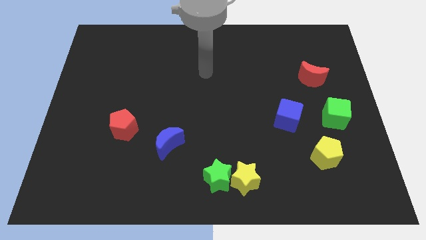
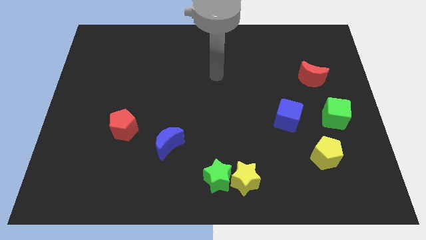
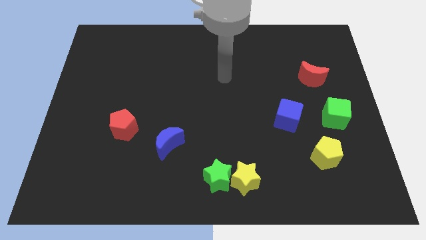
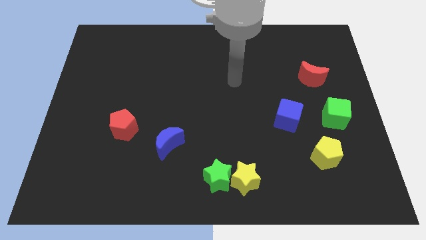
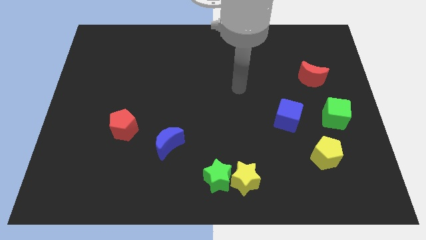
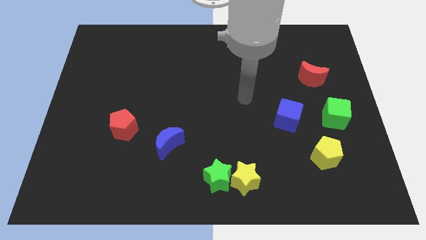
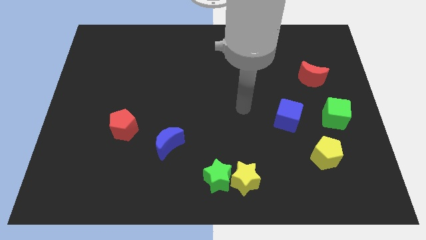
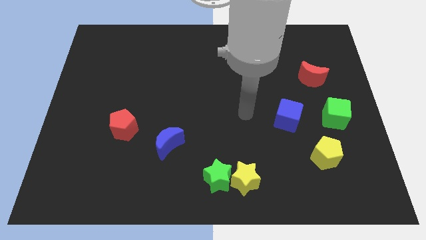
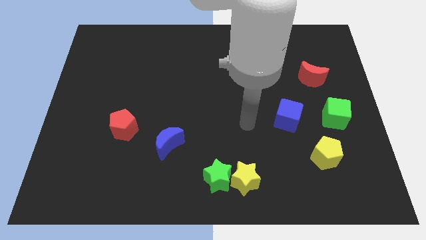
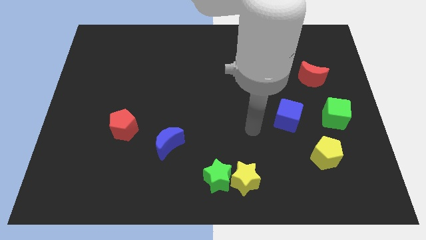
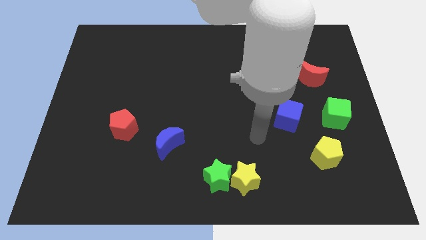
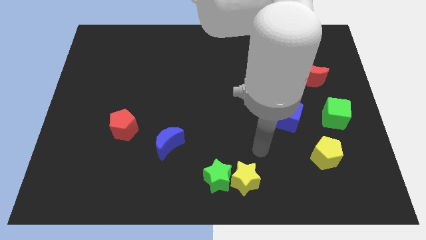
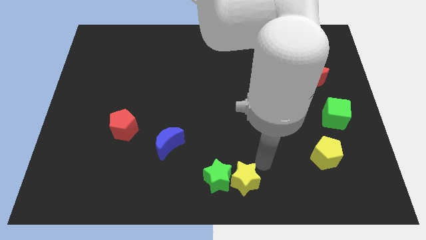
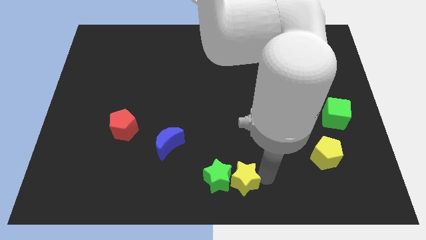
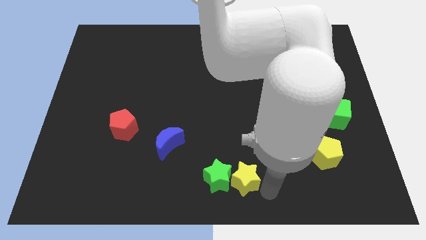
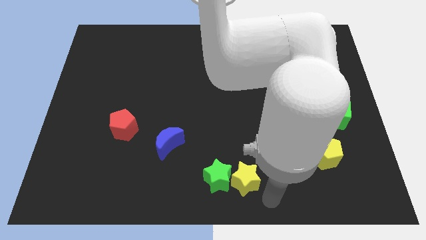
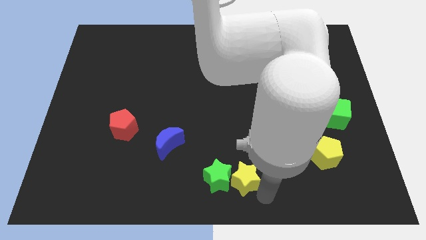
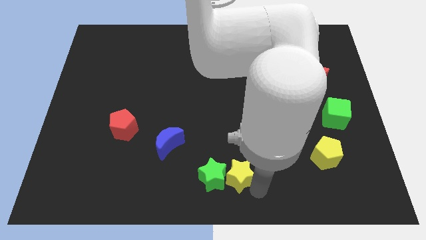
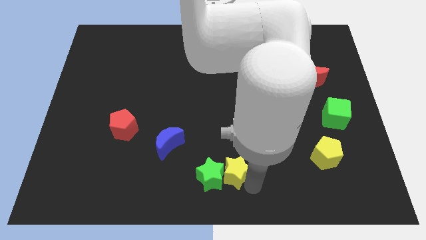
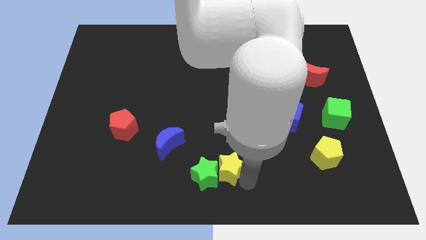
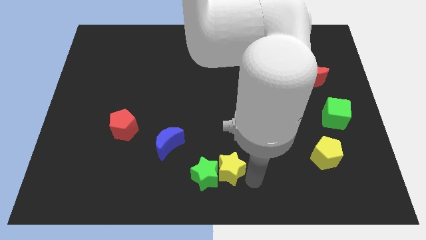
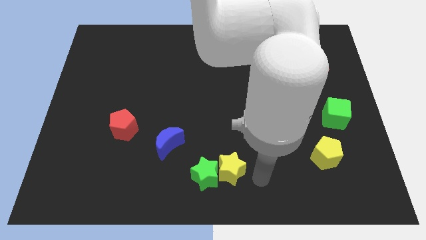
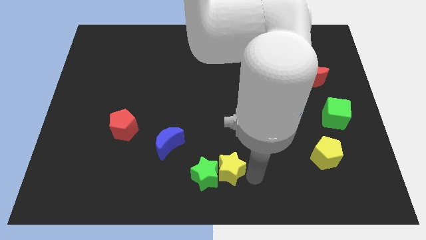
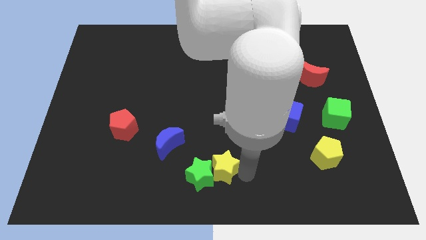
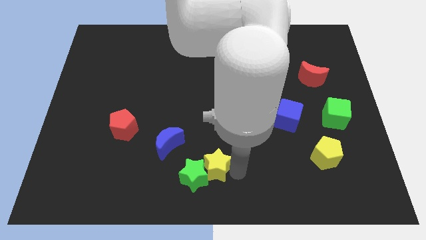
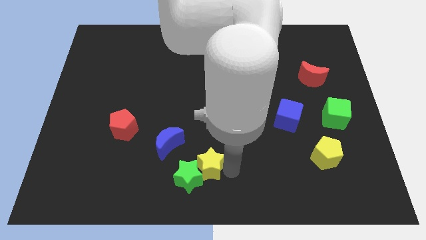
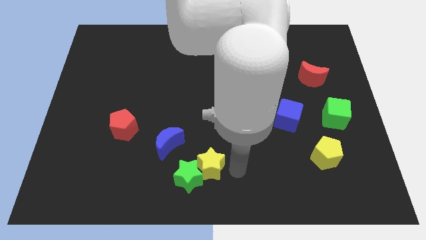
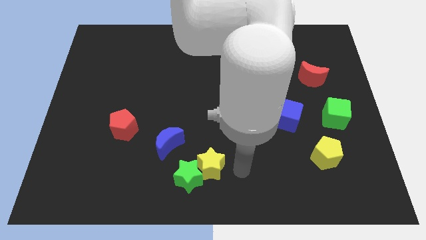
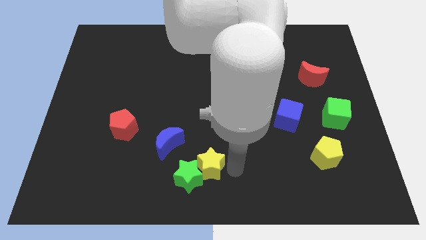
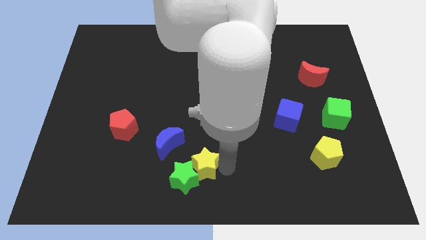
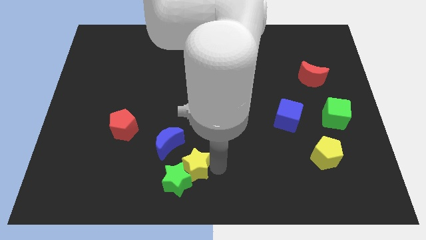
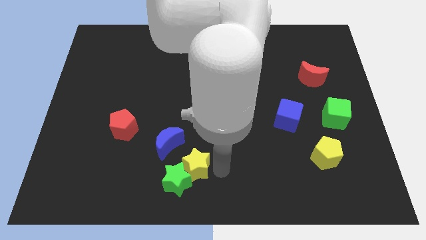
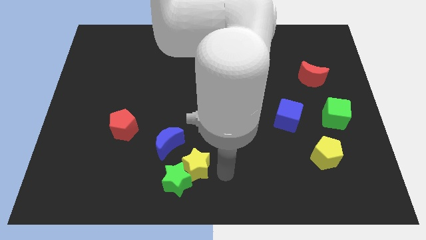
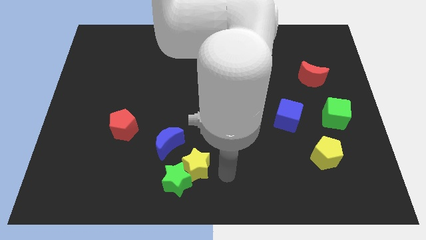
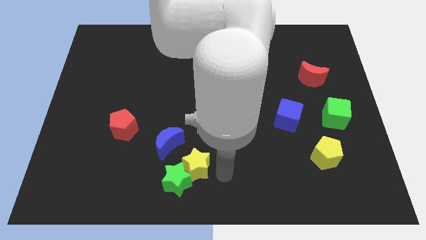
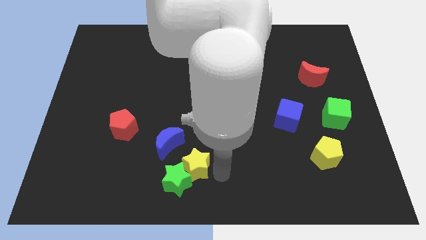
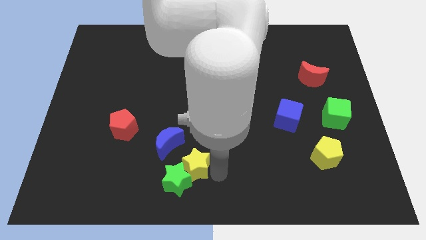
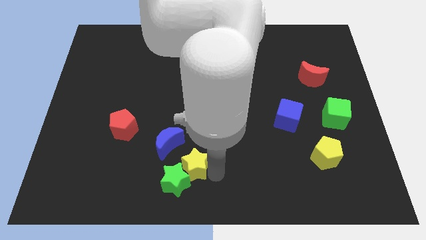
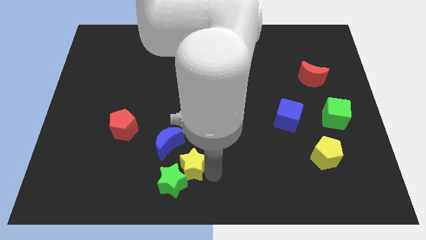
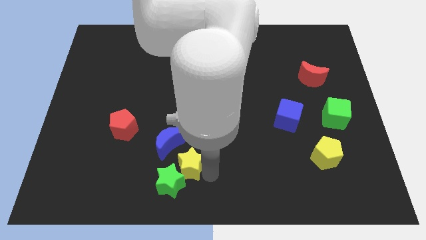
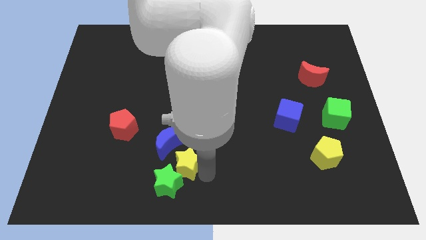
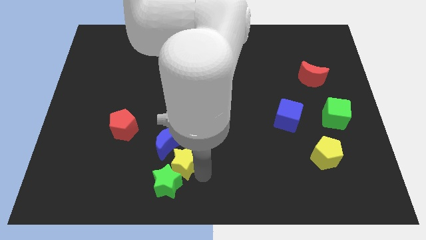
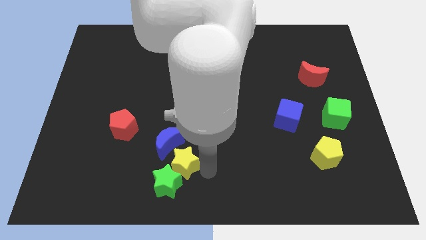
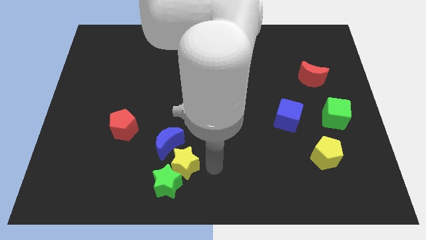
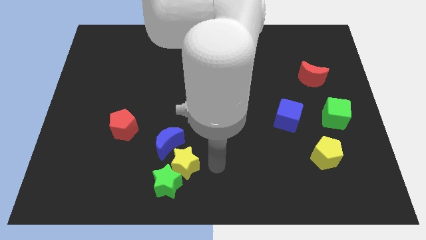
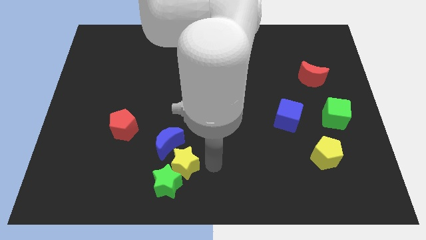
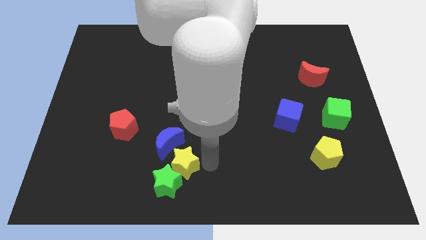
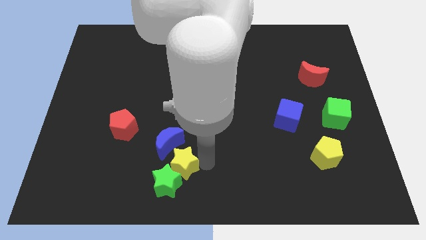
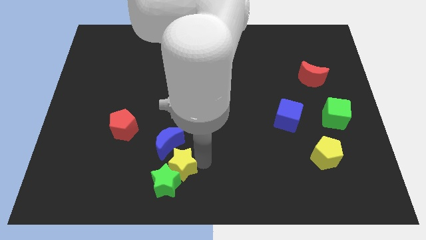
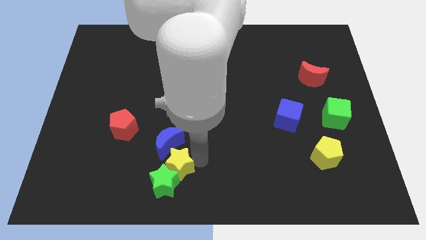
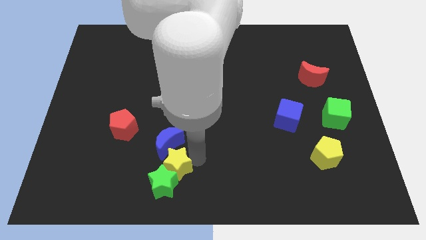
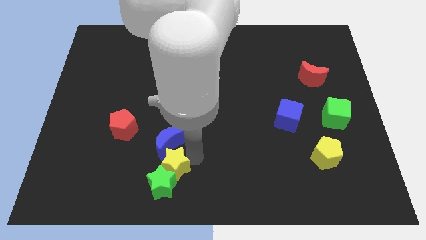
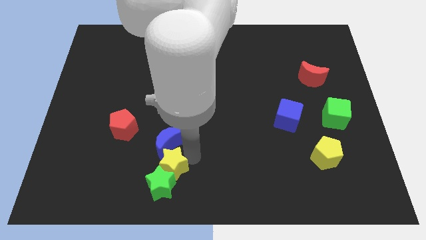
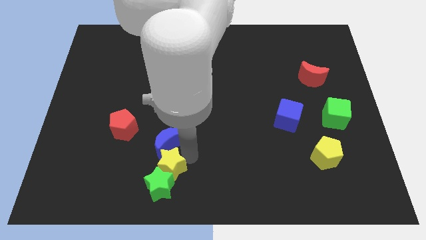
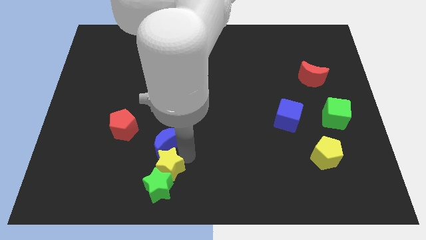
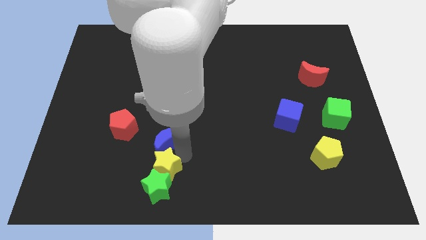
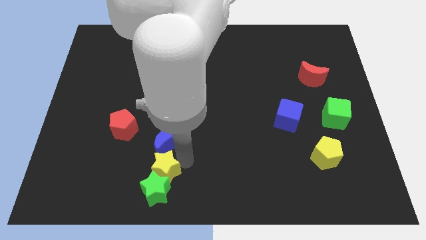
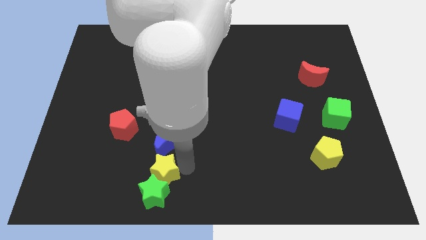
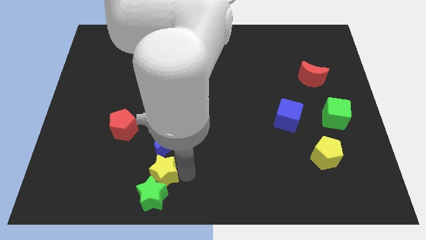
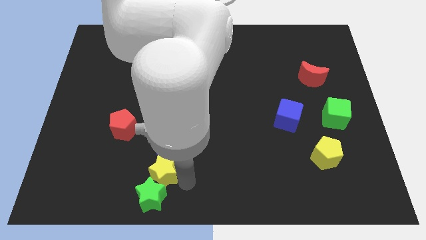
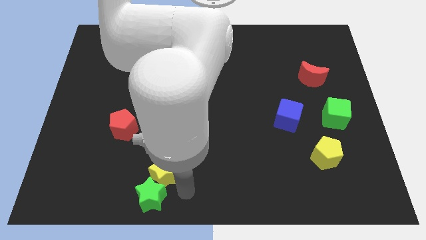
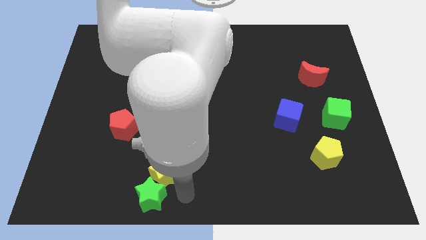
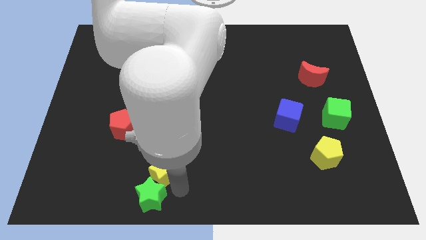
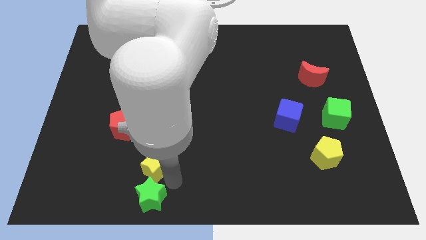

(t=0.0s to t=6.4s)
slide the yellow star to the bottom right of the red pentagon

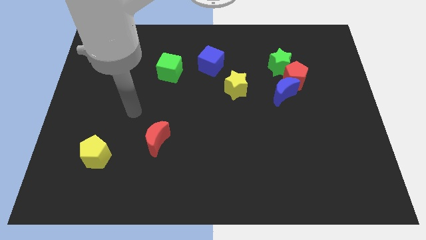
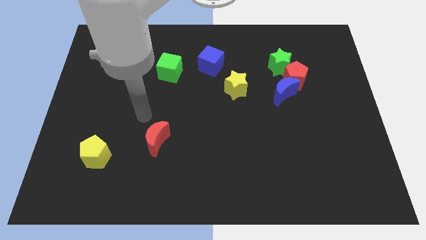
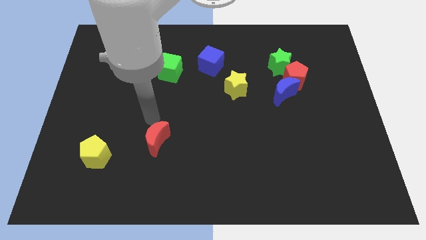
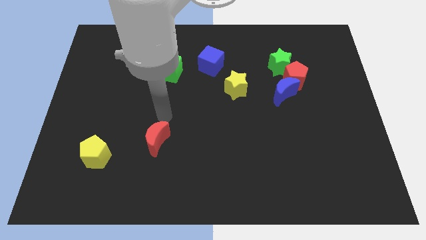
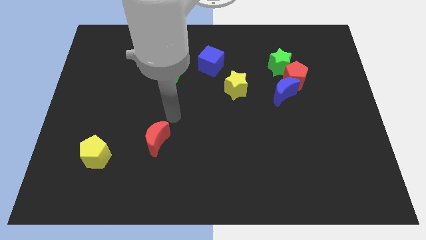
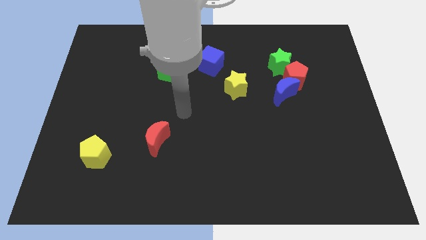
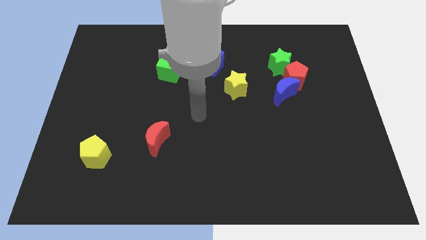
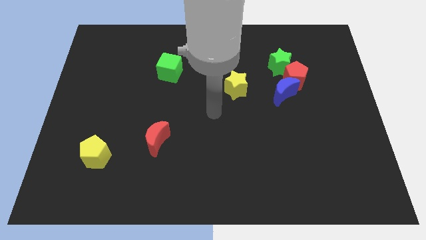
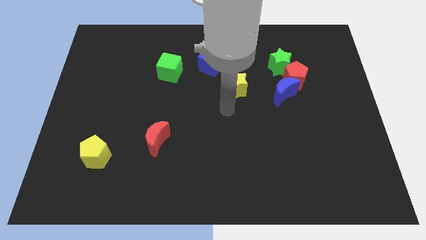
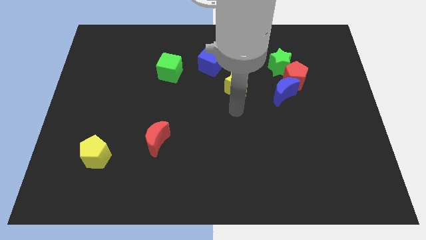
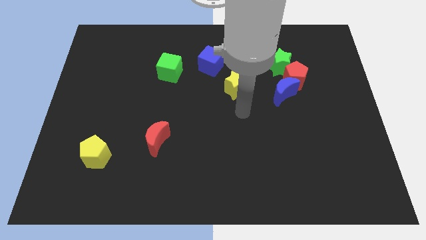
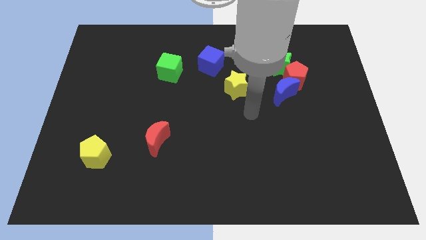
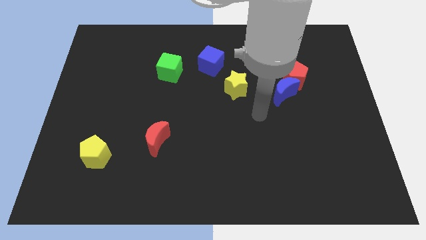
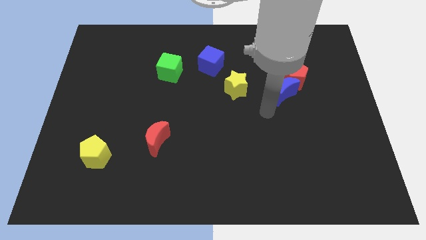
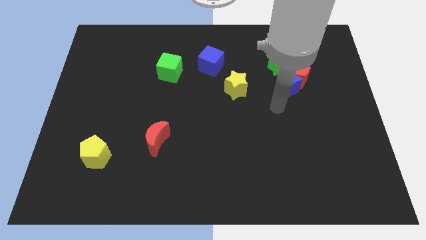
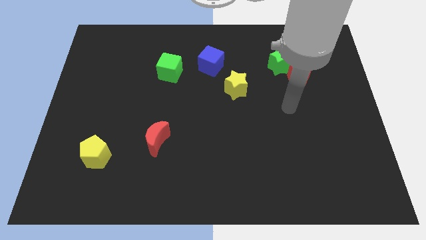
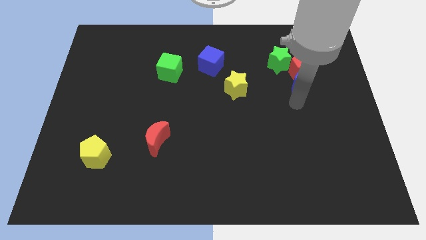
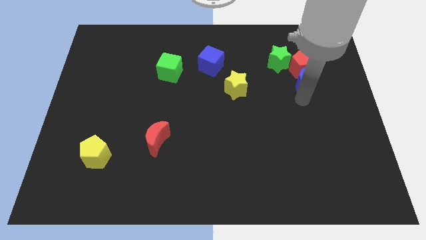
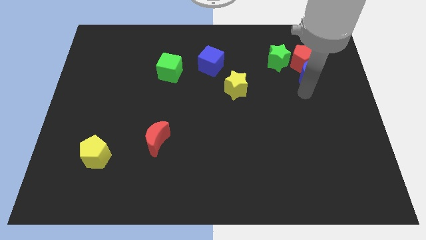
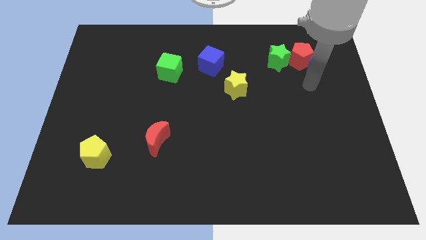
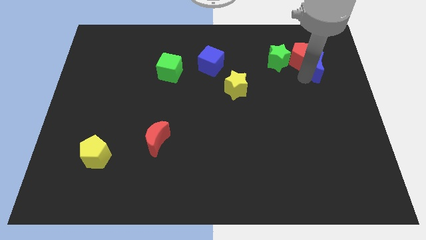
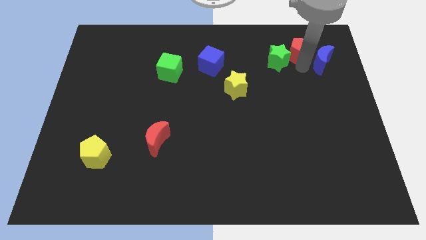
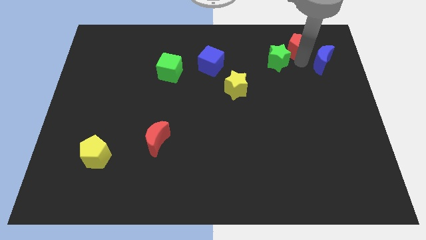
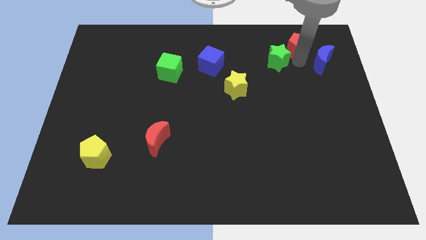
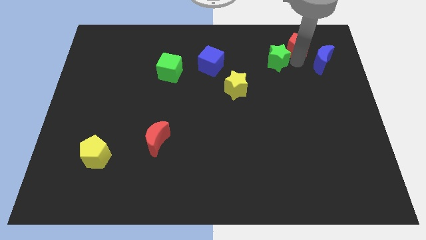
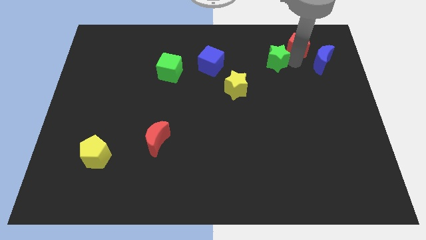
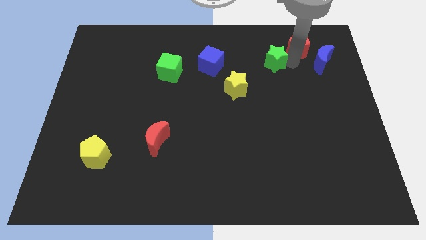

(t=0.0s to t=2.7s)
move the green star just right of the blue cube
